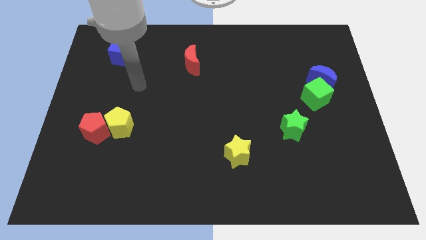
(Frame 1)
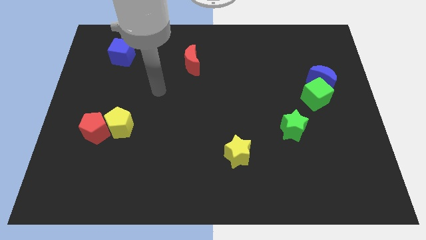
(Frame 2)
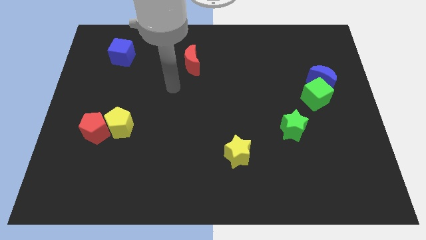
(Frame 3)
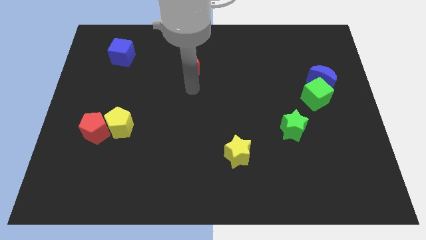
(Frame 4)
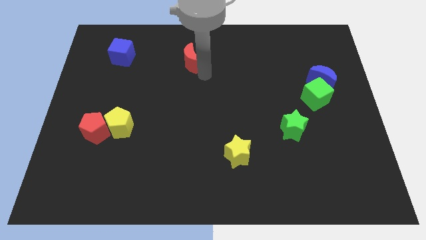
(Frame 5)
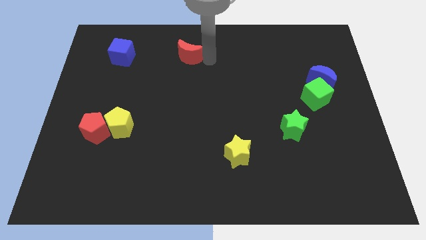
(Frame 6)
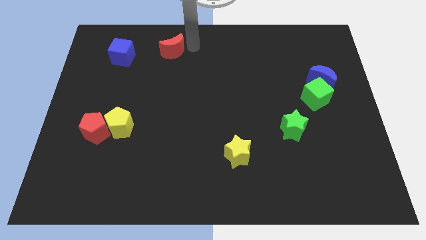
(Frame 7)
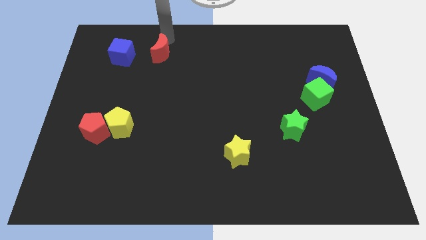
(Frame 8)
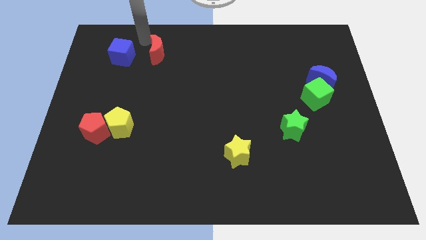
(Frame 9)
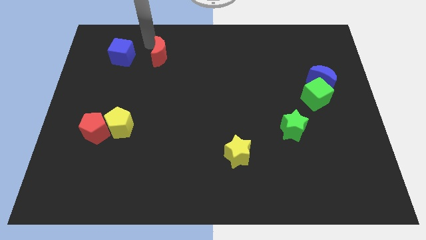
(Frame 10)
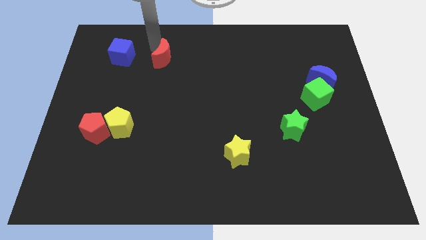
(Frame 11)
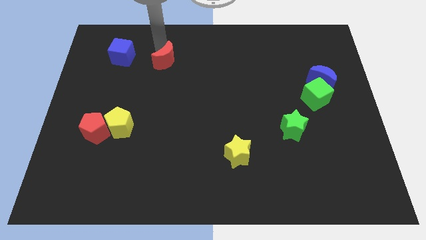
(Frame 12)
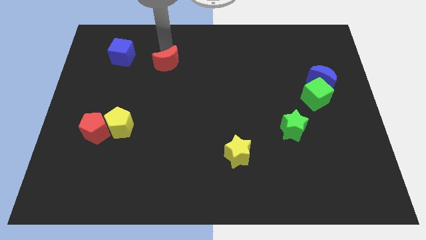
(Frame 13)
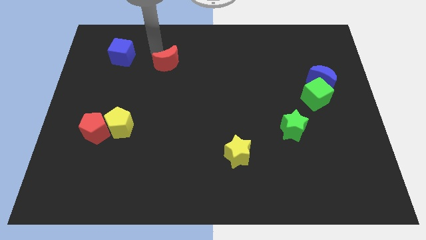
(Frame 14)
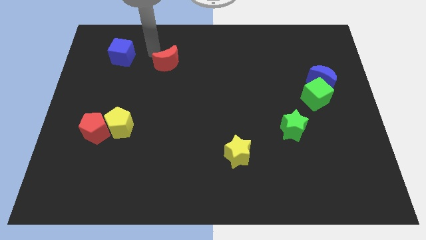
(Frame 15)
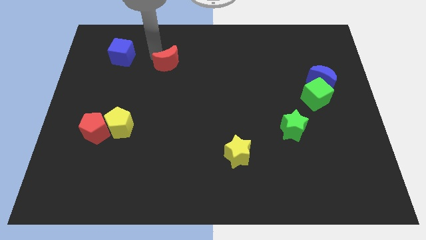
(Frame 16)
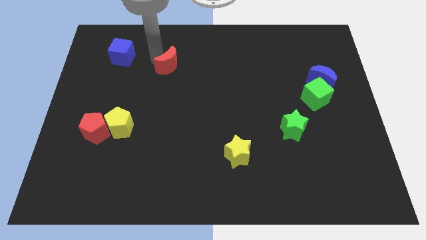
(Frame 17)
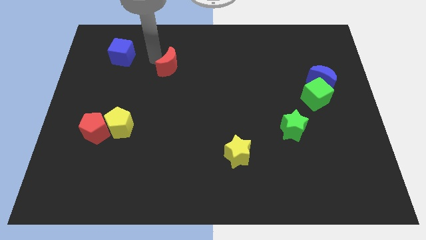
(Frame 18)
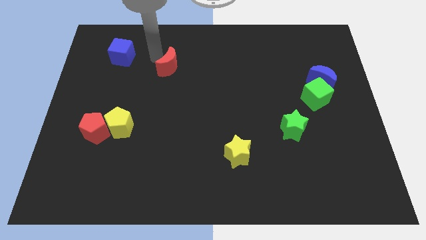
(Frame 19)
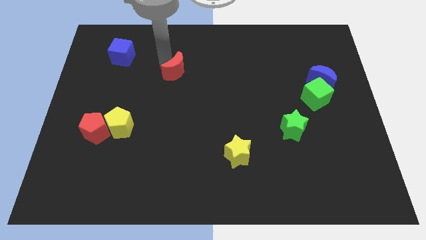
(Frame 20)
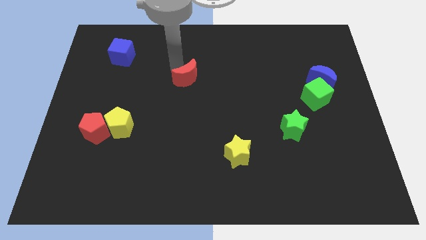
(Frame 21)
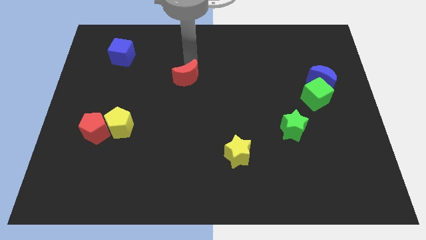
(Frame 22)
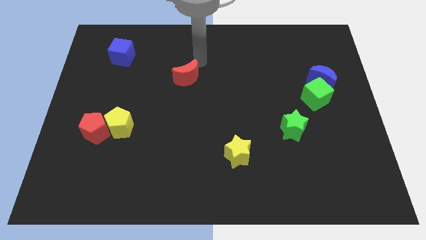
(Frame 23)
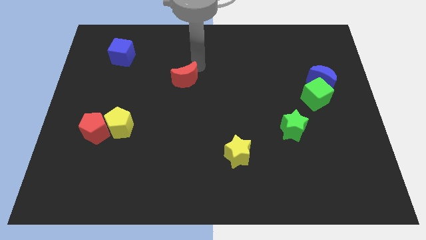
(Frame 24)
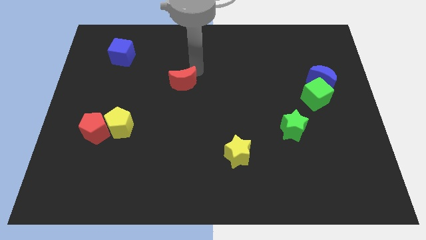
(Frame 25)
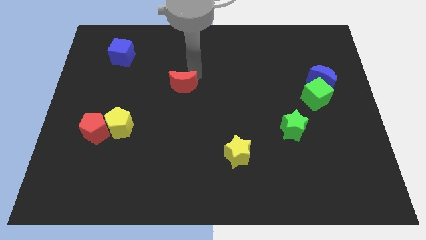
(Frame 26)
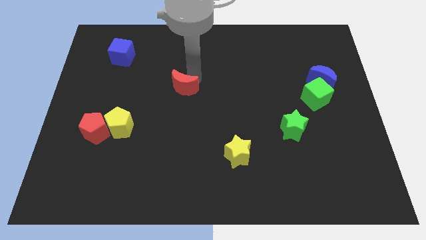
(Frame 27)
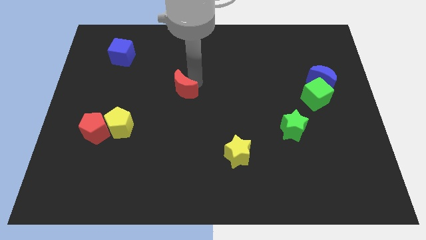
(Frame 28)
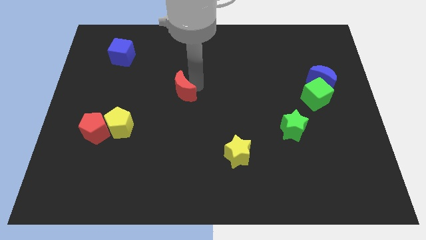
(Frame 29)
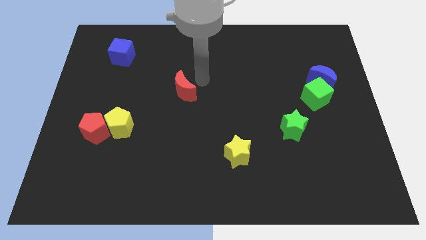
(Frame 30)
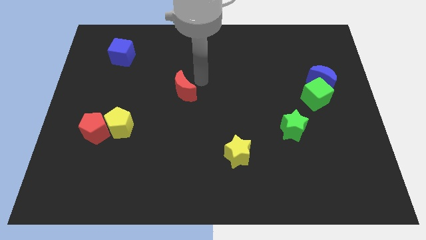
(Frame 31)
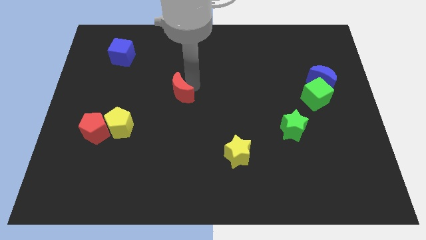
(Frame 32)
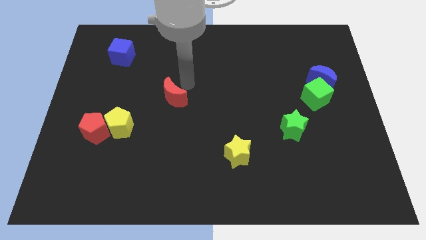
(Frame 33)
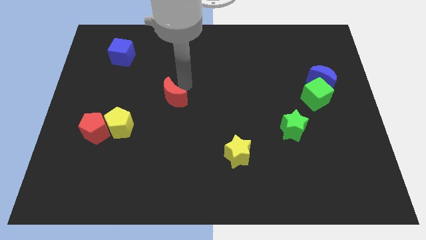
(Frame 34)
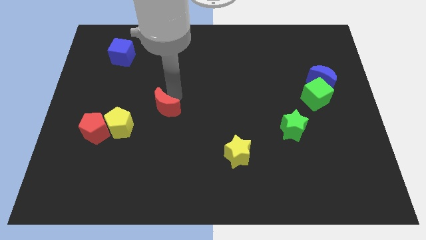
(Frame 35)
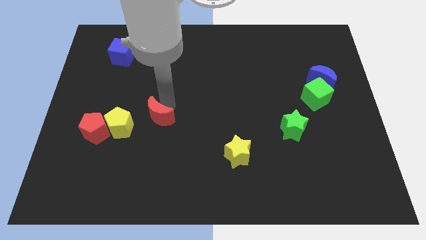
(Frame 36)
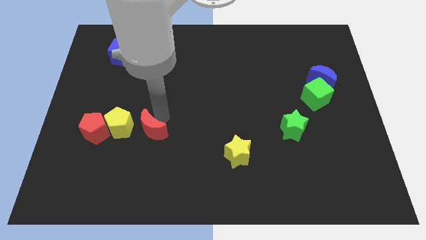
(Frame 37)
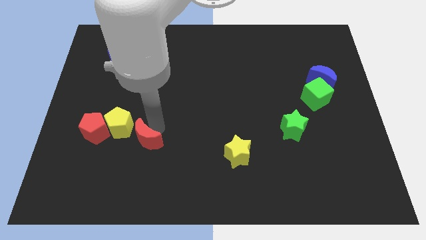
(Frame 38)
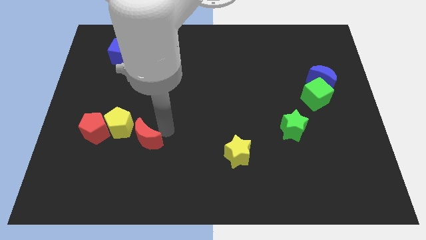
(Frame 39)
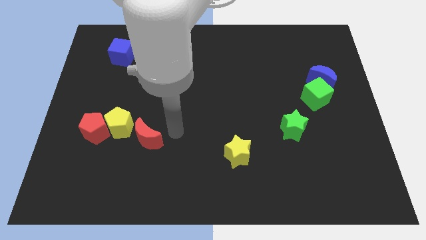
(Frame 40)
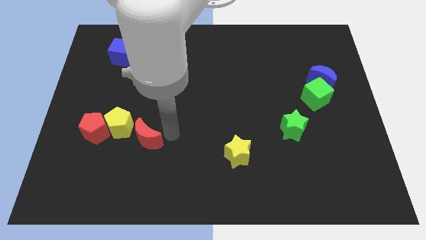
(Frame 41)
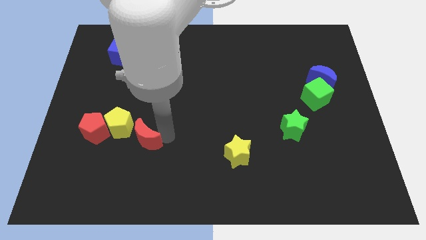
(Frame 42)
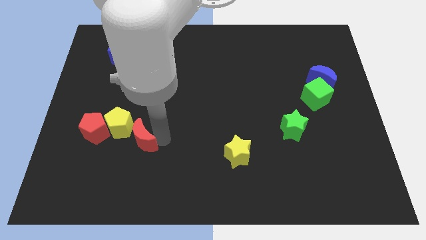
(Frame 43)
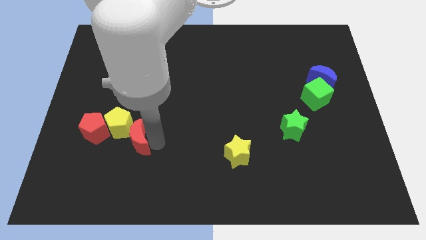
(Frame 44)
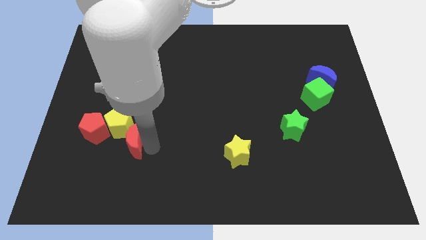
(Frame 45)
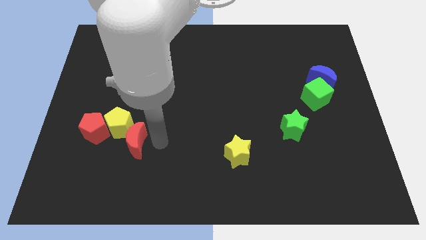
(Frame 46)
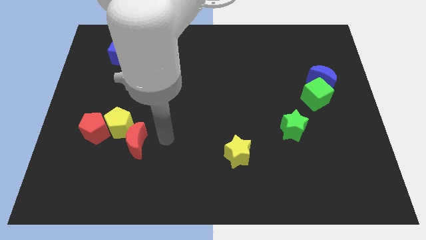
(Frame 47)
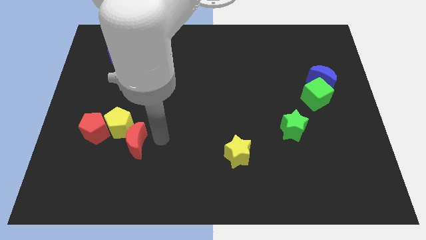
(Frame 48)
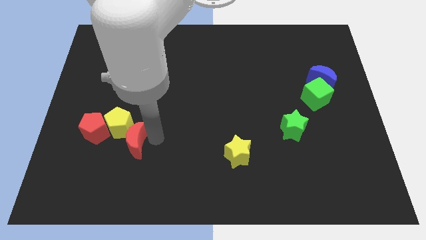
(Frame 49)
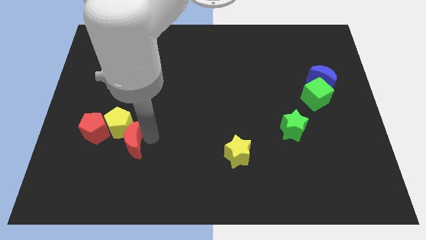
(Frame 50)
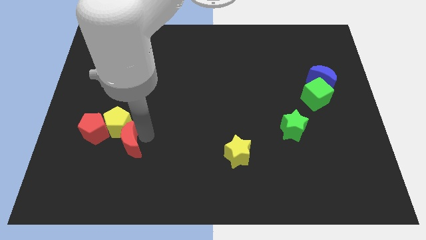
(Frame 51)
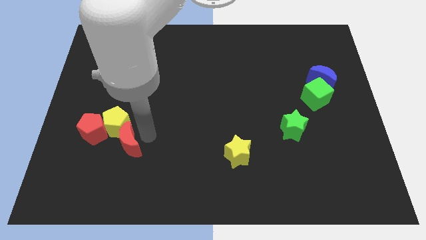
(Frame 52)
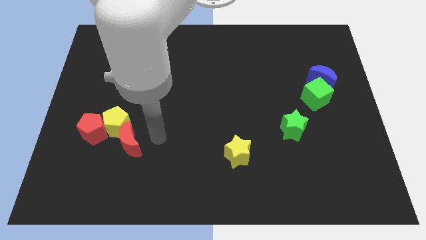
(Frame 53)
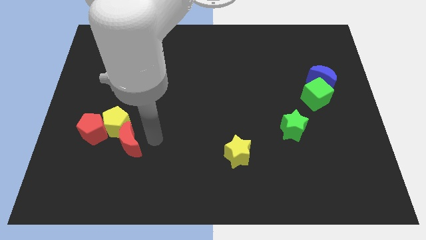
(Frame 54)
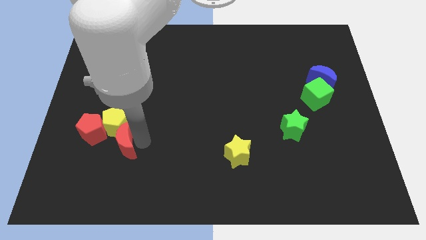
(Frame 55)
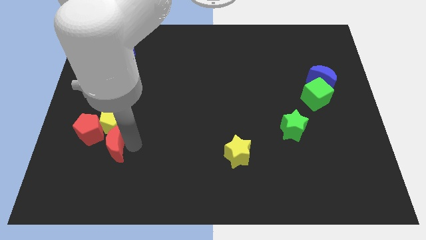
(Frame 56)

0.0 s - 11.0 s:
put the red moon to the bottom left of the yellow pentagon

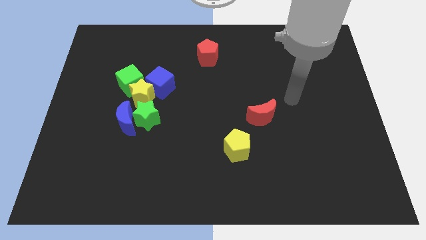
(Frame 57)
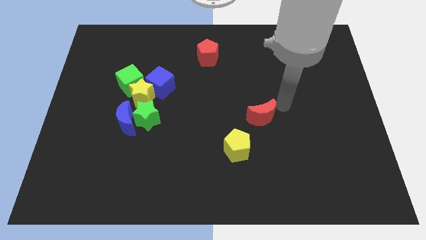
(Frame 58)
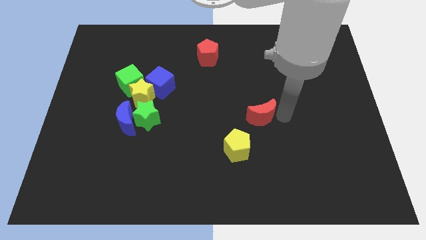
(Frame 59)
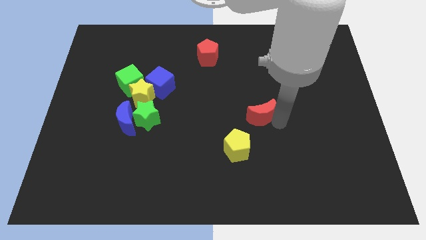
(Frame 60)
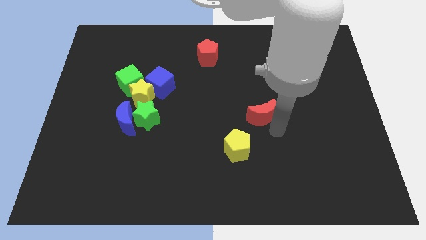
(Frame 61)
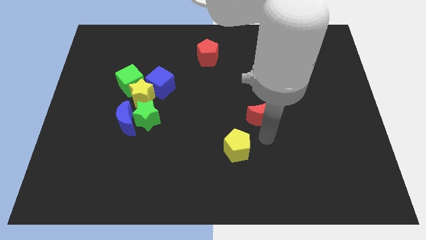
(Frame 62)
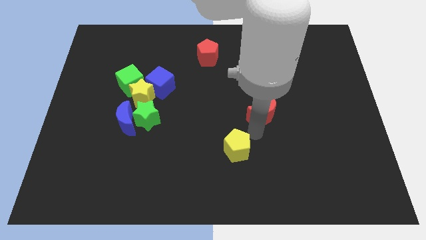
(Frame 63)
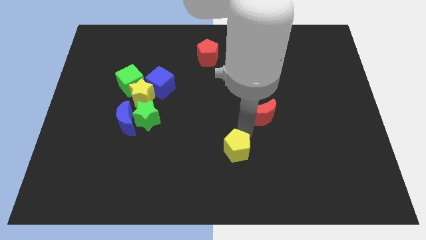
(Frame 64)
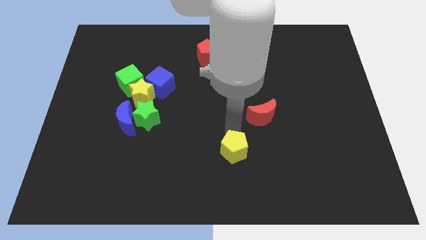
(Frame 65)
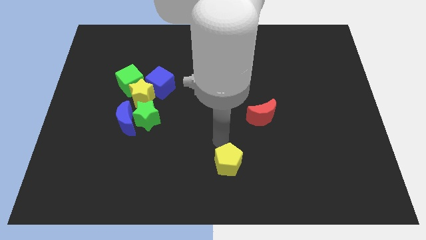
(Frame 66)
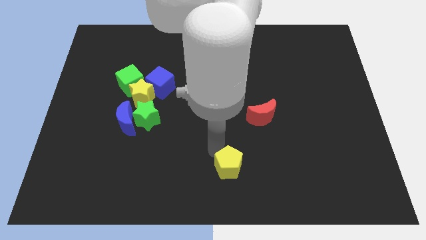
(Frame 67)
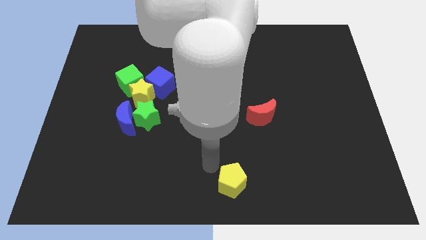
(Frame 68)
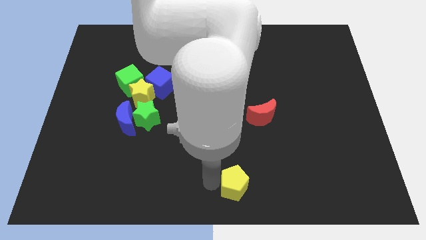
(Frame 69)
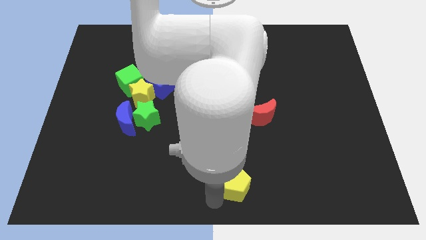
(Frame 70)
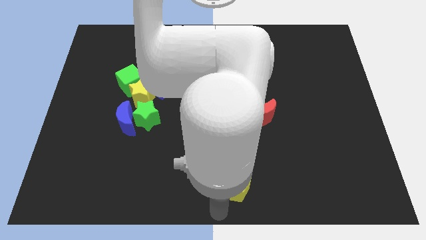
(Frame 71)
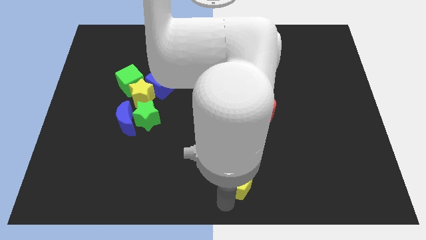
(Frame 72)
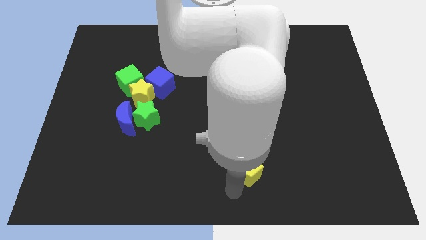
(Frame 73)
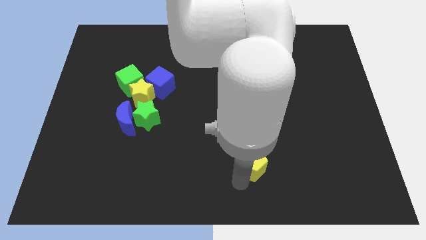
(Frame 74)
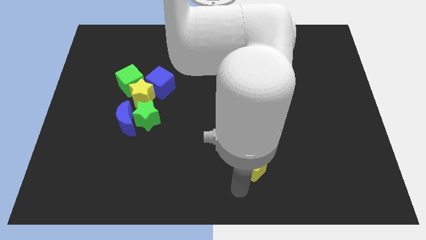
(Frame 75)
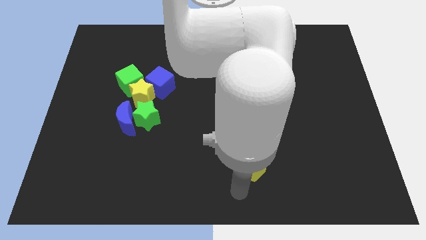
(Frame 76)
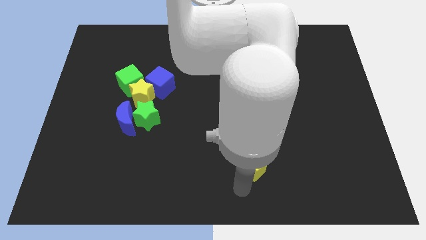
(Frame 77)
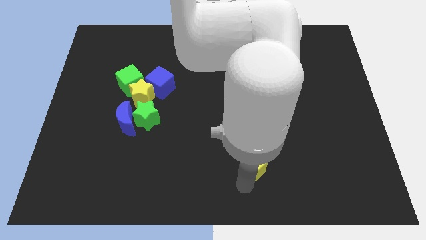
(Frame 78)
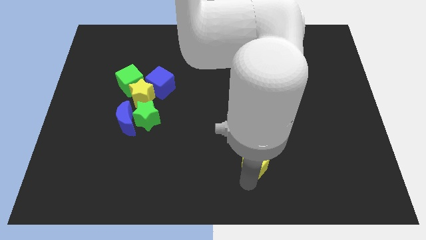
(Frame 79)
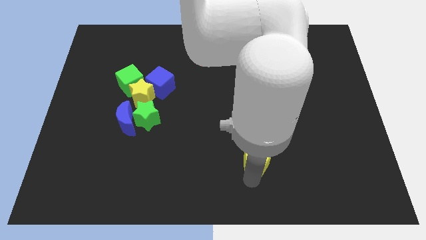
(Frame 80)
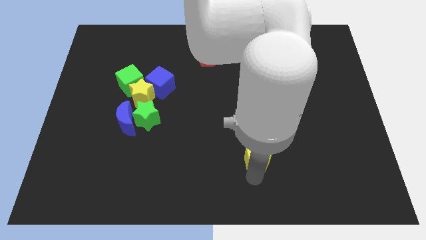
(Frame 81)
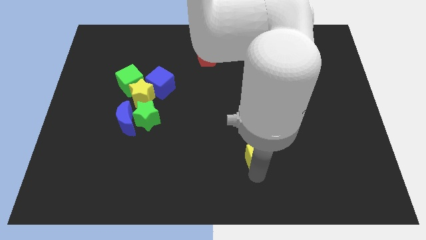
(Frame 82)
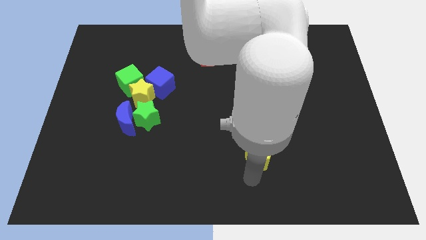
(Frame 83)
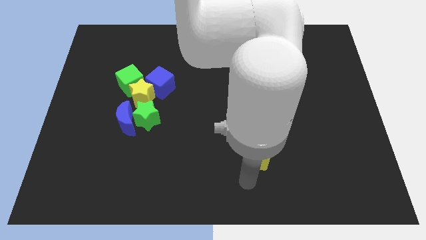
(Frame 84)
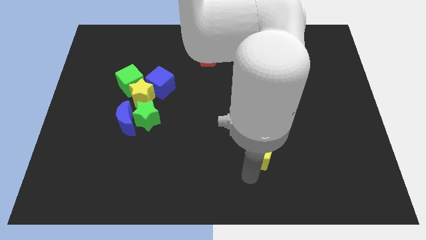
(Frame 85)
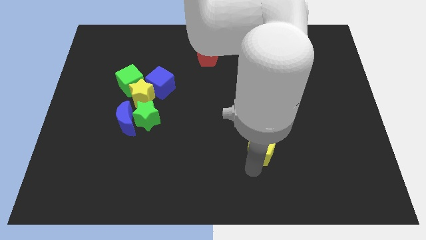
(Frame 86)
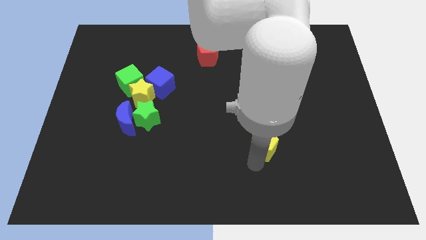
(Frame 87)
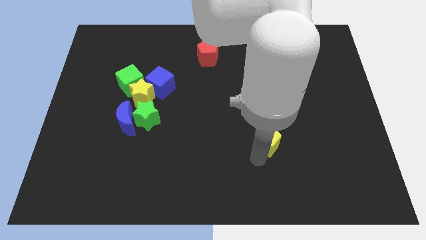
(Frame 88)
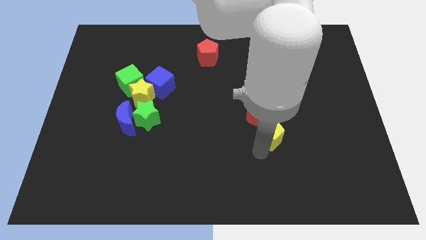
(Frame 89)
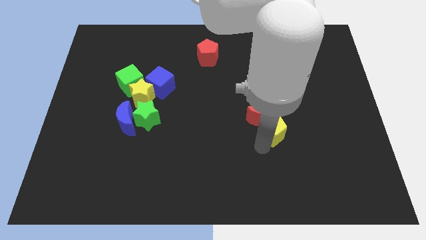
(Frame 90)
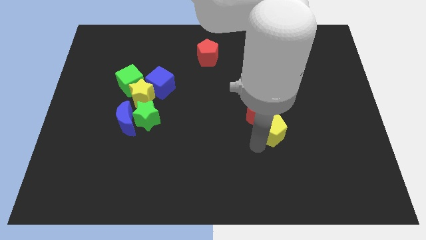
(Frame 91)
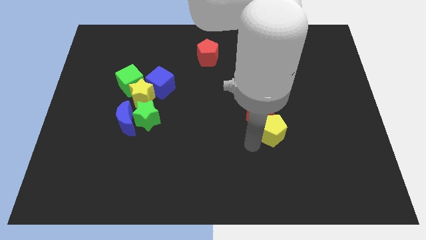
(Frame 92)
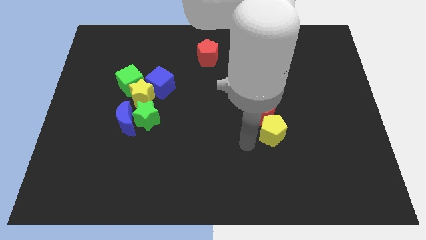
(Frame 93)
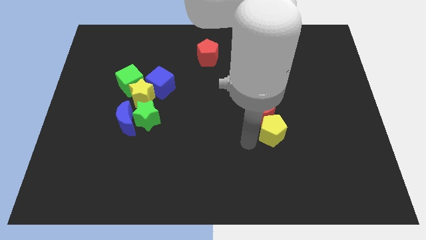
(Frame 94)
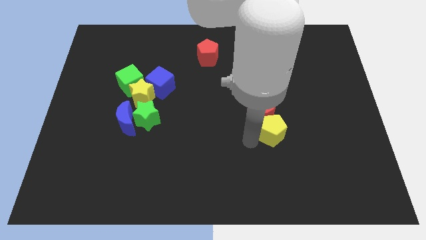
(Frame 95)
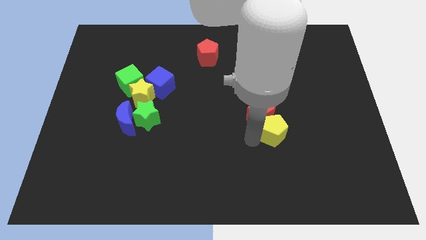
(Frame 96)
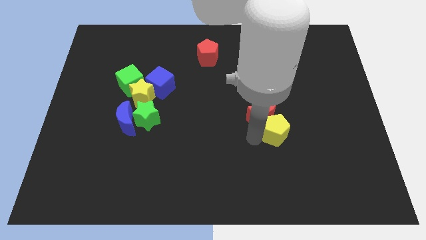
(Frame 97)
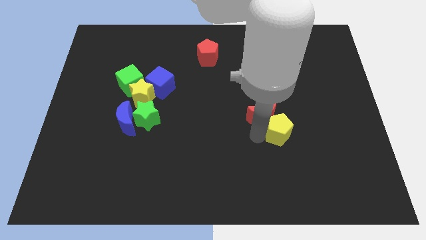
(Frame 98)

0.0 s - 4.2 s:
put the yellow pentagon right of the red moon
